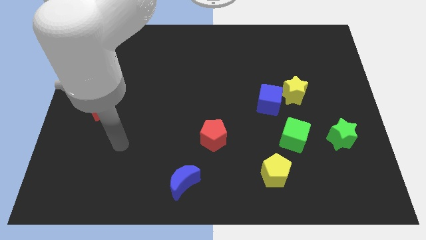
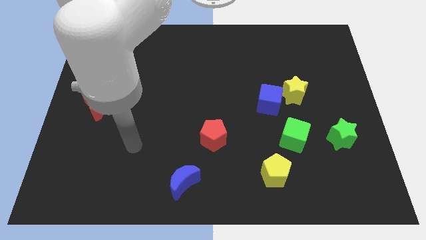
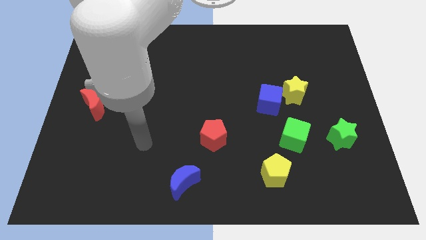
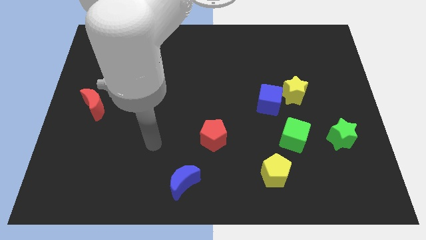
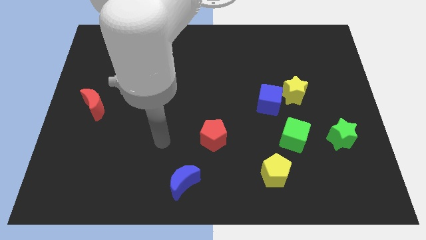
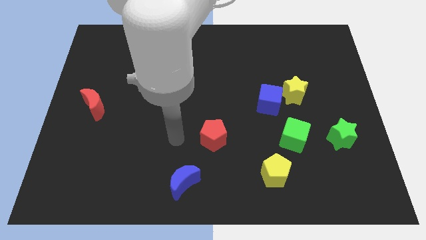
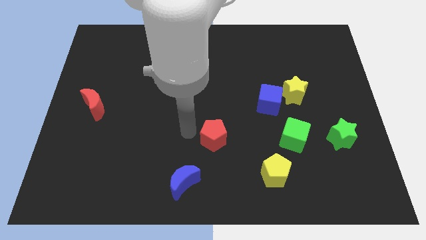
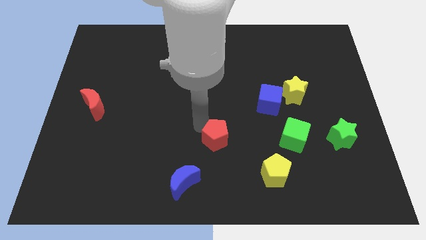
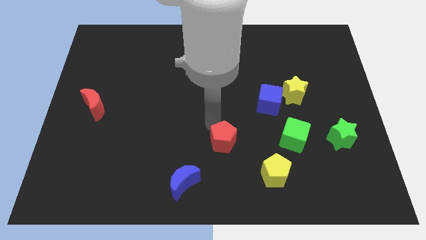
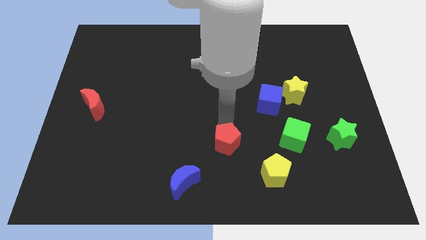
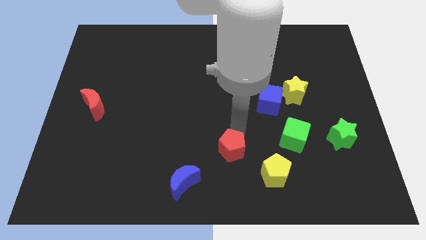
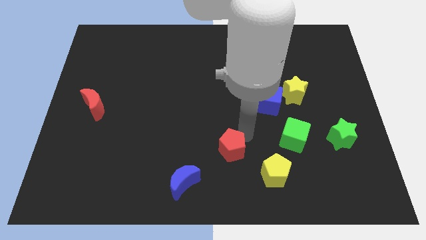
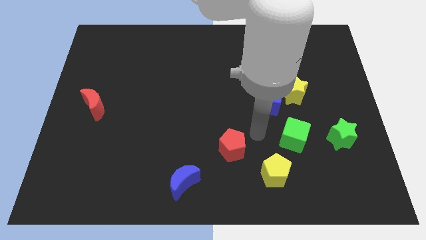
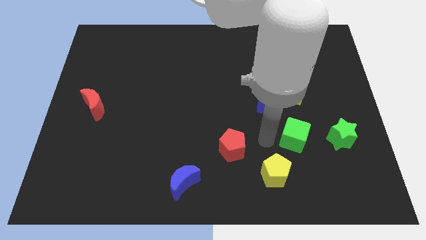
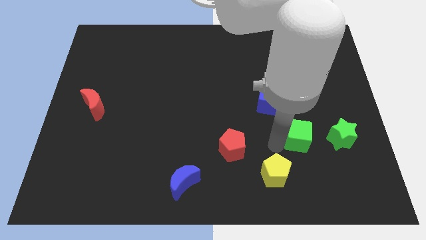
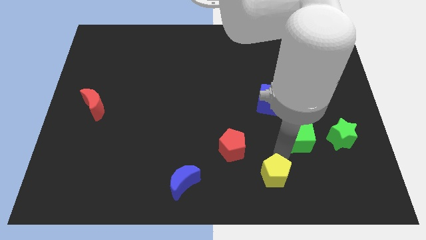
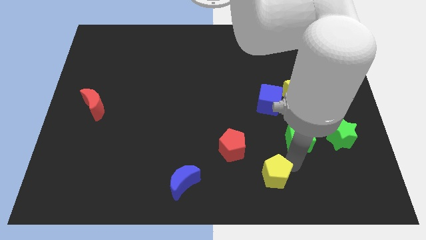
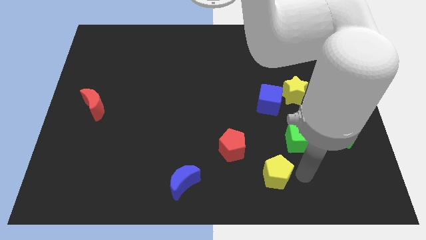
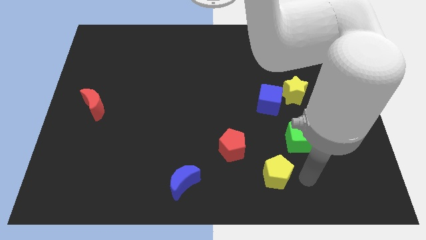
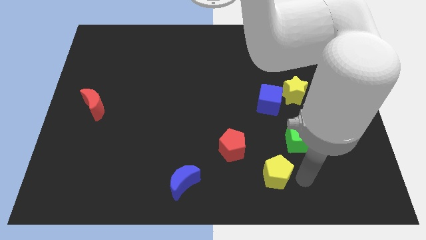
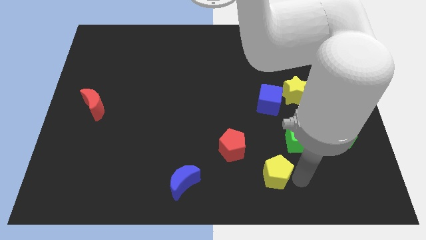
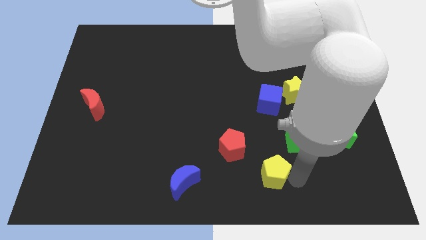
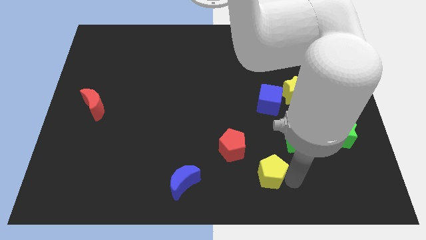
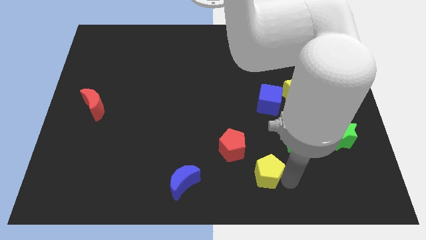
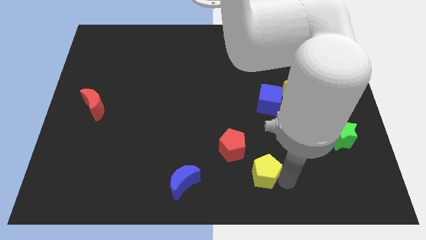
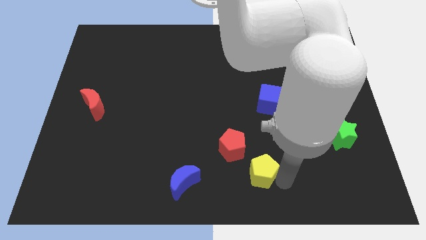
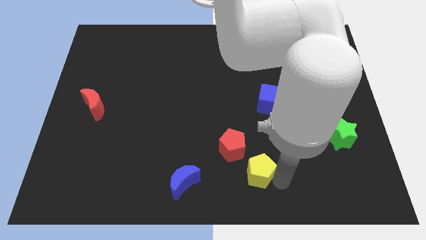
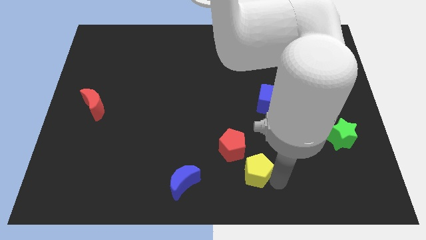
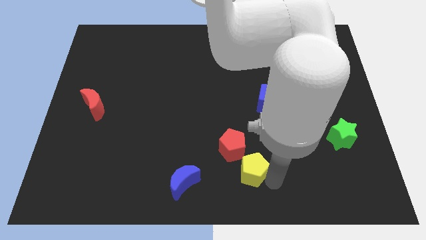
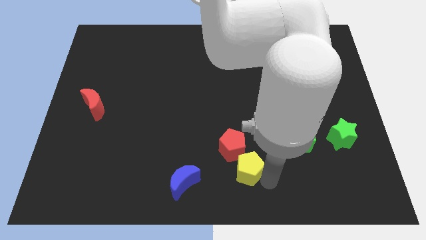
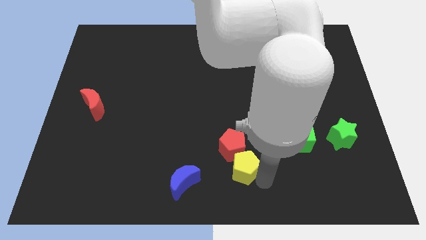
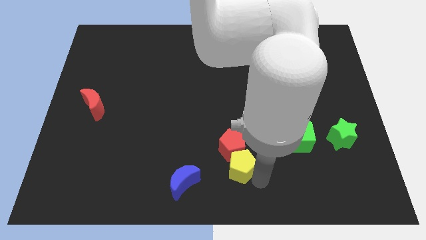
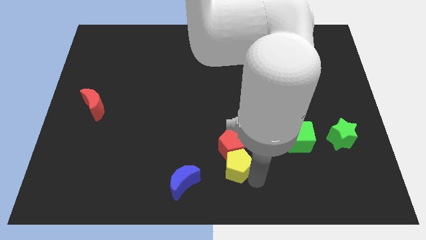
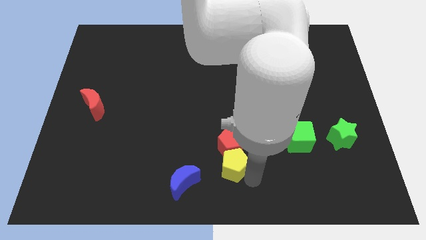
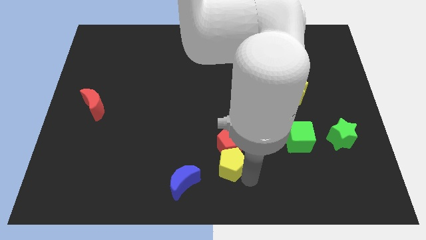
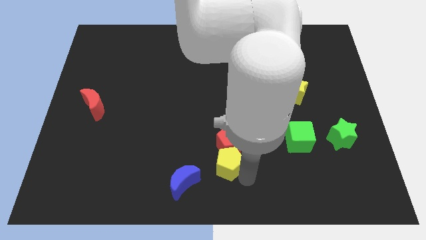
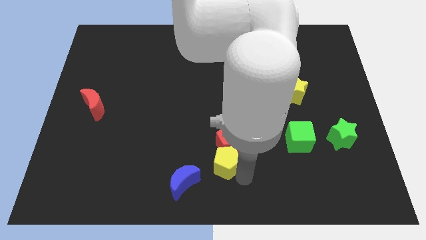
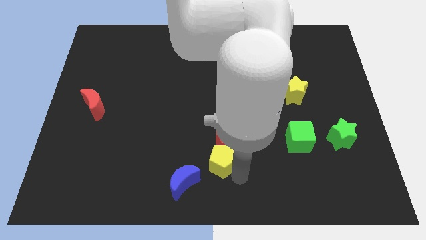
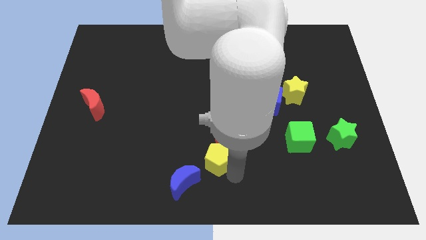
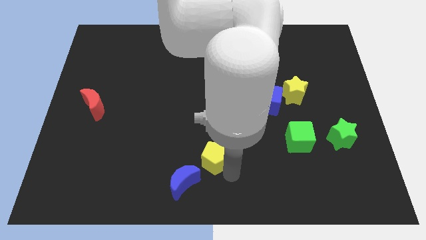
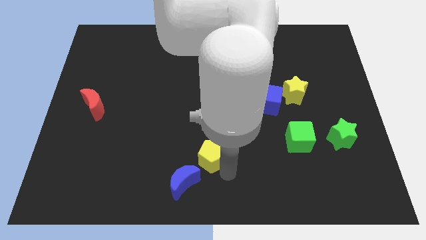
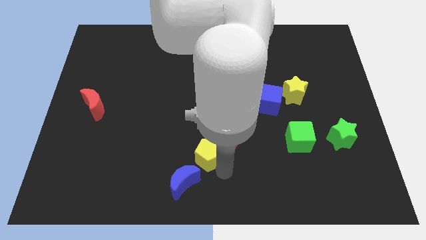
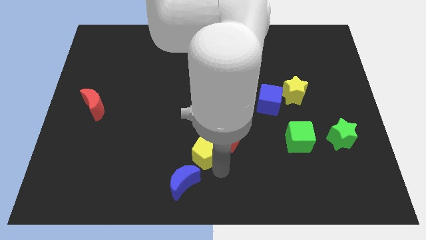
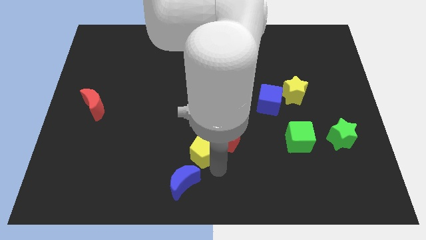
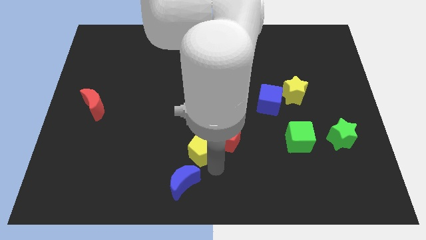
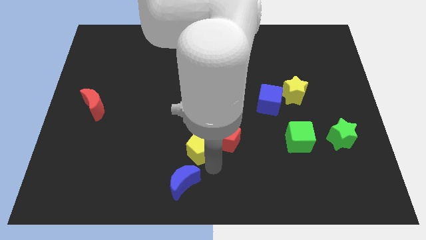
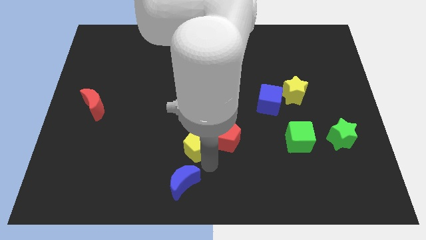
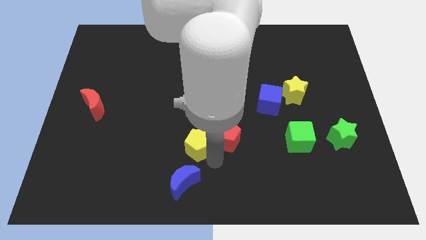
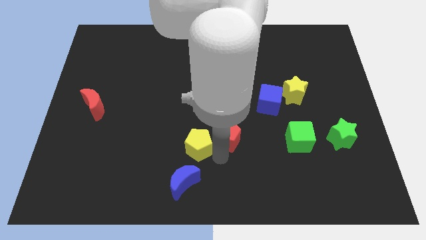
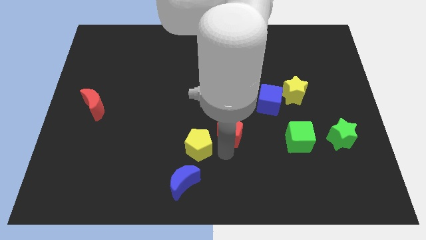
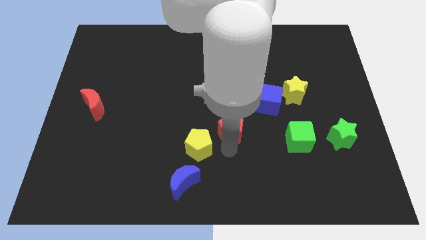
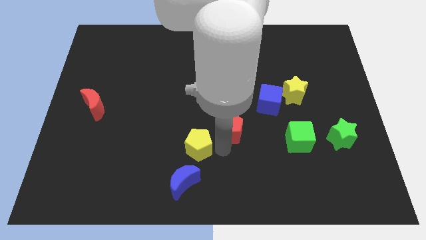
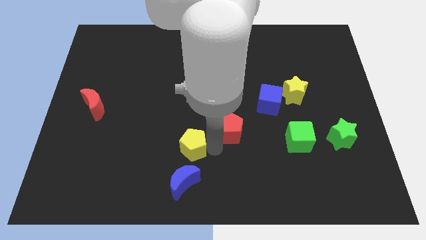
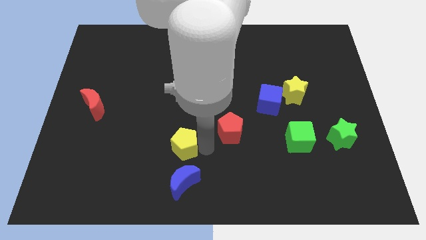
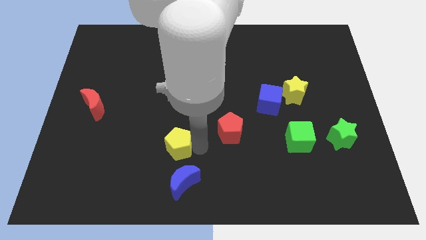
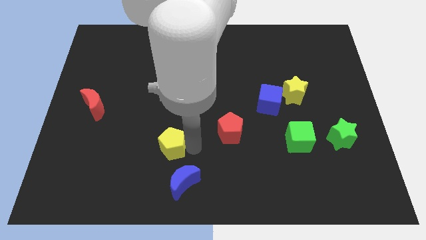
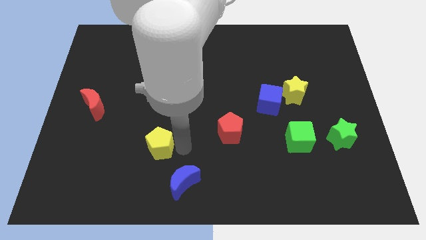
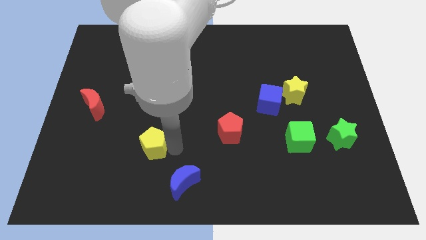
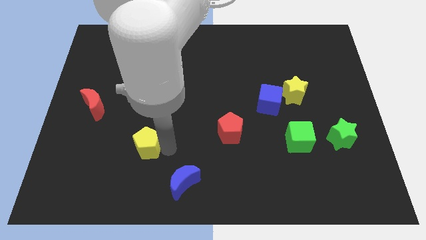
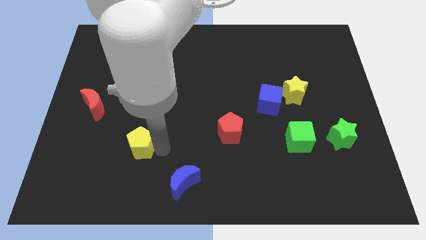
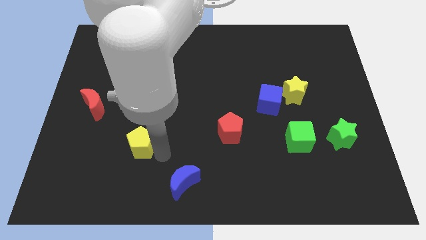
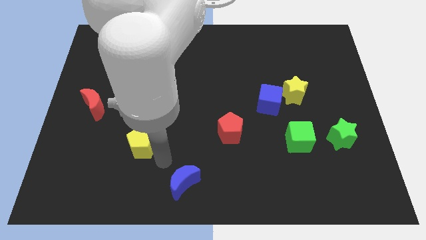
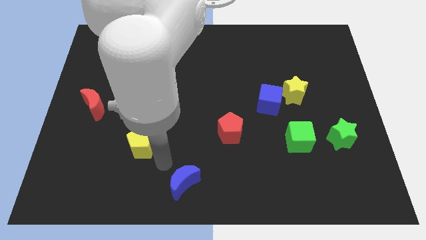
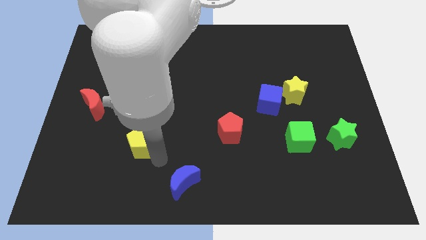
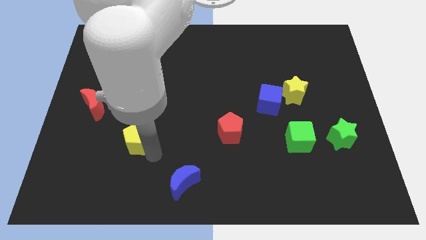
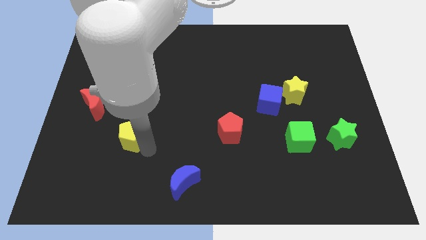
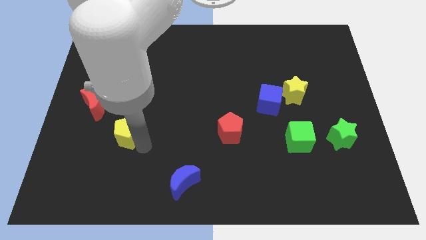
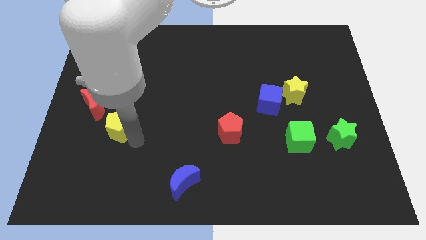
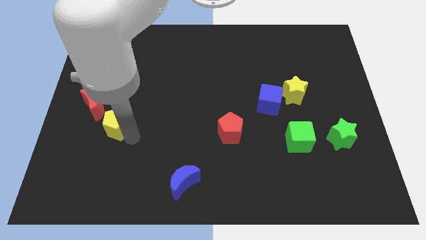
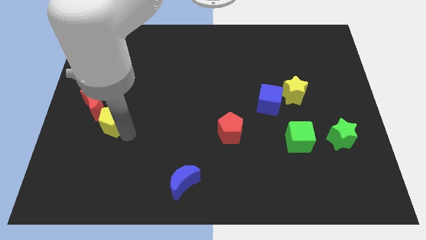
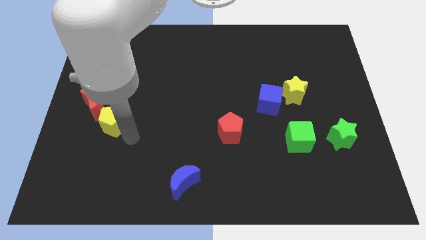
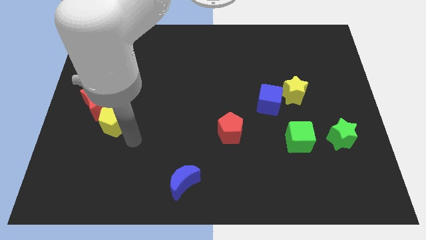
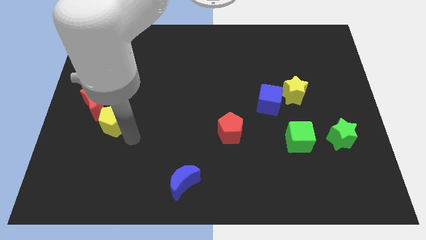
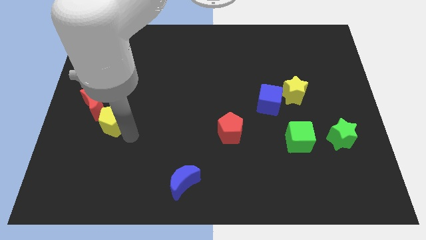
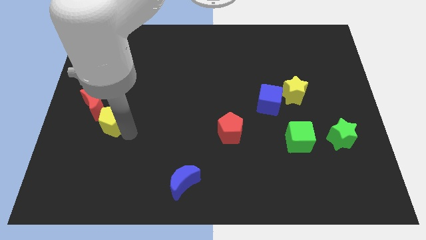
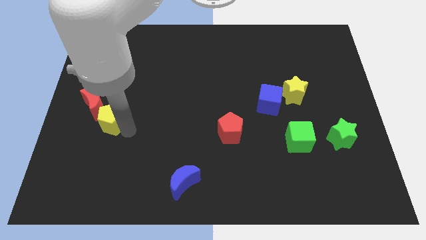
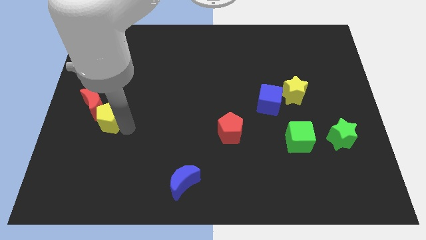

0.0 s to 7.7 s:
move the yellow pentagon towards the red moon
